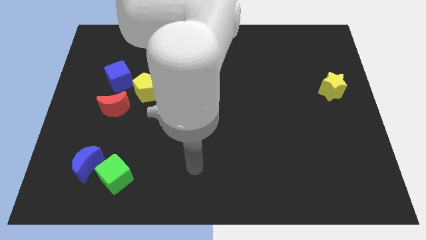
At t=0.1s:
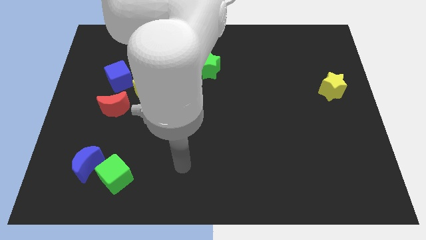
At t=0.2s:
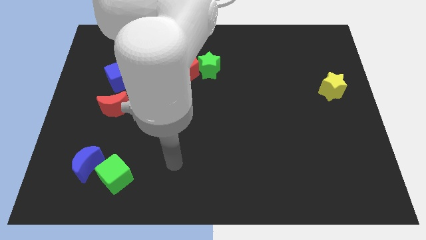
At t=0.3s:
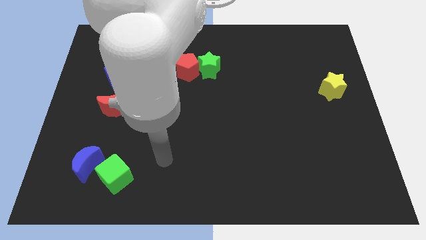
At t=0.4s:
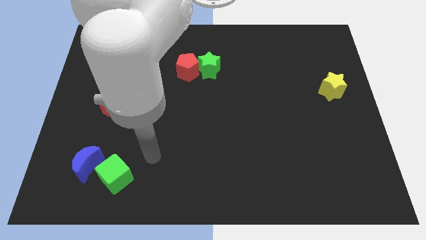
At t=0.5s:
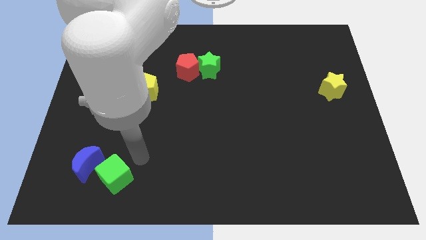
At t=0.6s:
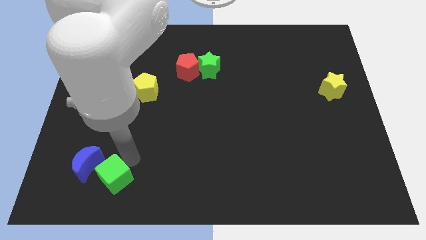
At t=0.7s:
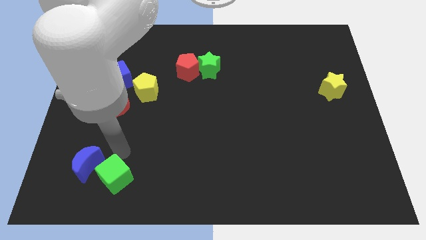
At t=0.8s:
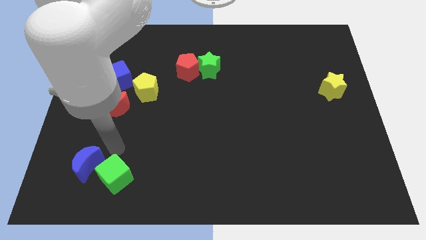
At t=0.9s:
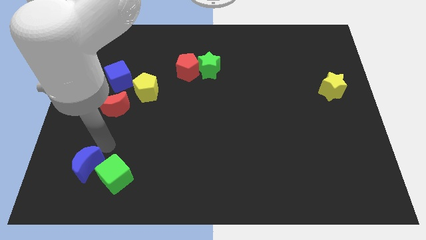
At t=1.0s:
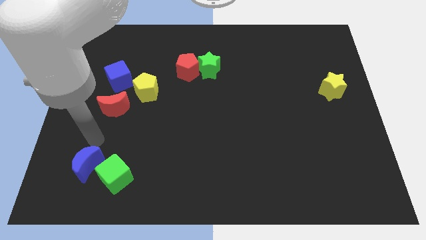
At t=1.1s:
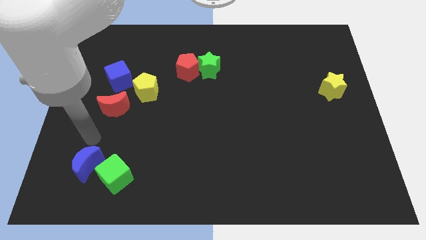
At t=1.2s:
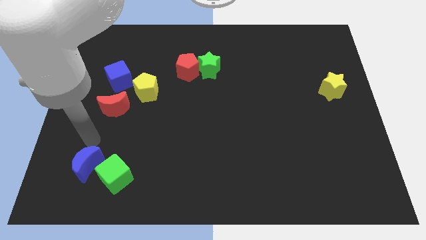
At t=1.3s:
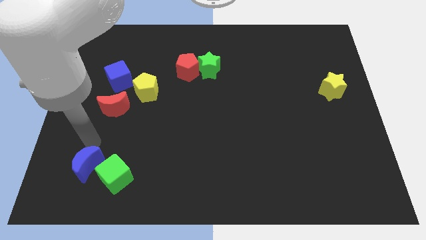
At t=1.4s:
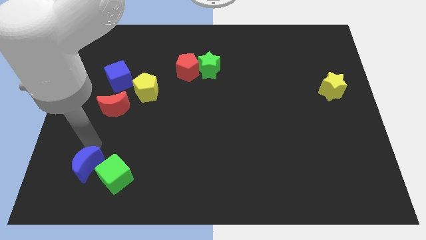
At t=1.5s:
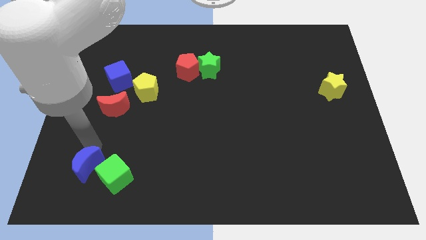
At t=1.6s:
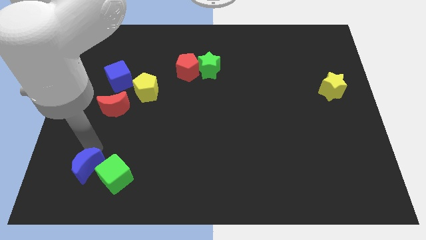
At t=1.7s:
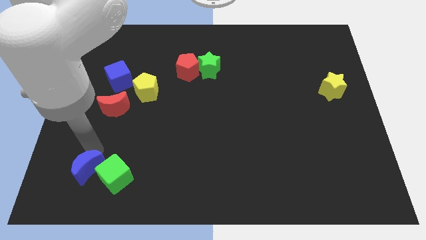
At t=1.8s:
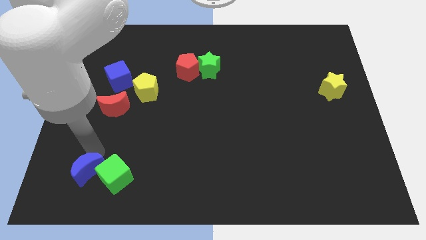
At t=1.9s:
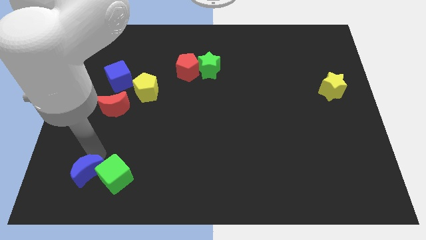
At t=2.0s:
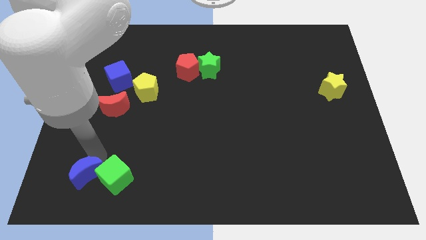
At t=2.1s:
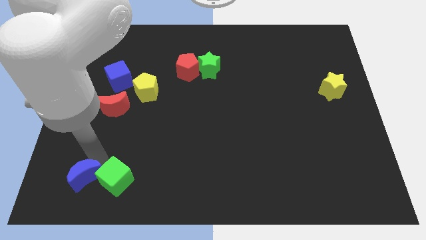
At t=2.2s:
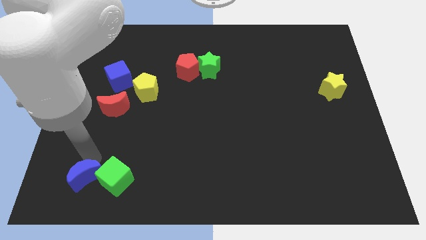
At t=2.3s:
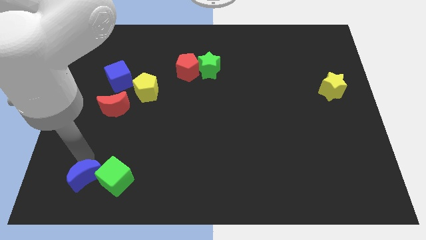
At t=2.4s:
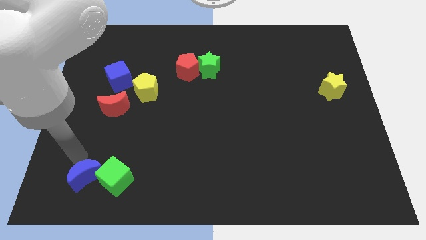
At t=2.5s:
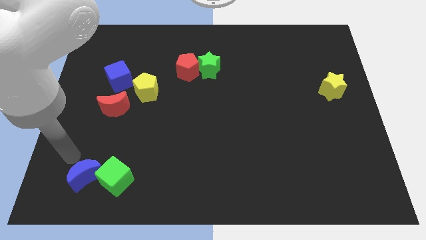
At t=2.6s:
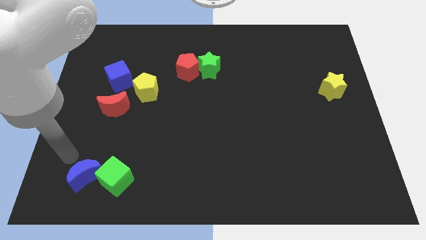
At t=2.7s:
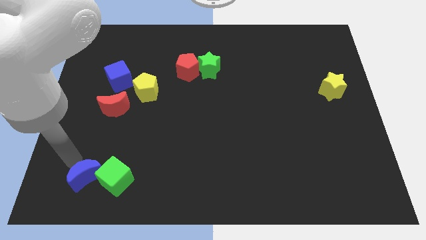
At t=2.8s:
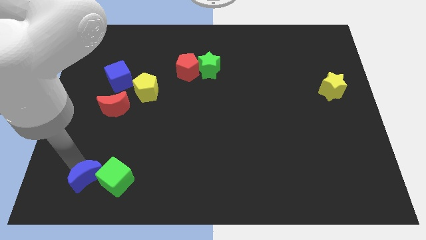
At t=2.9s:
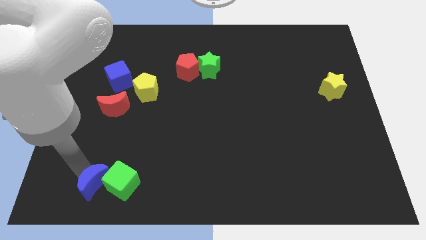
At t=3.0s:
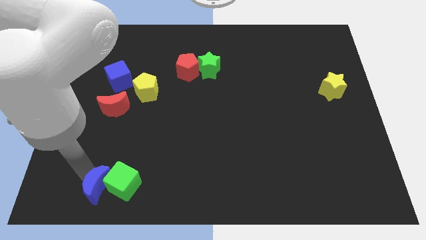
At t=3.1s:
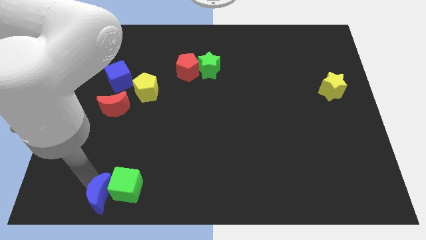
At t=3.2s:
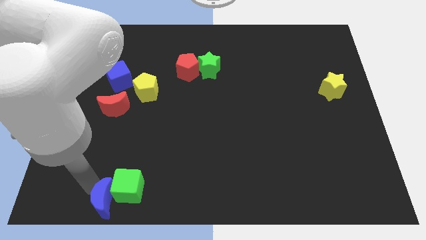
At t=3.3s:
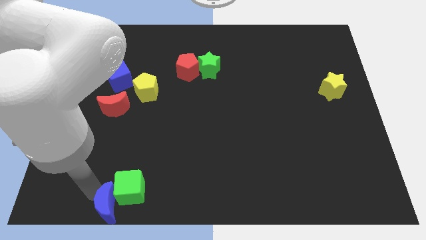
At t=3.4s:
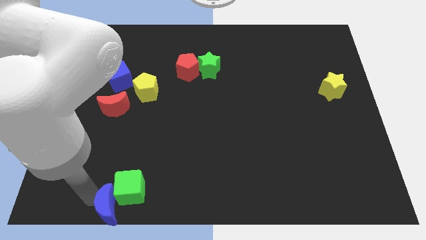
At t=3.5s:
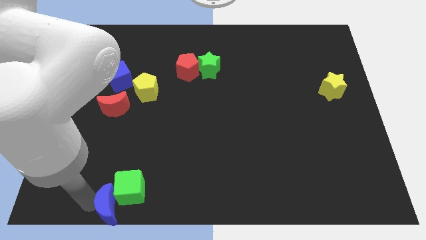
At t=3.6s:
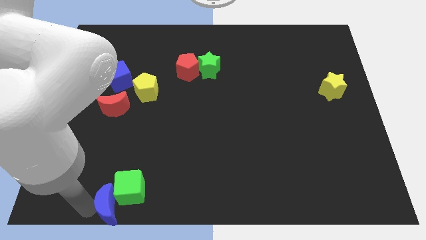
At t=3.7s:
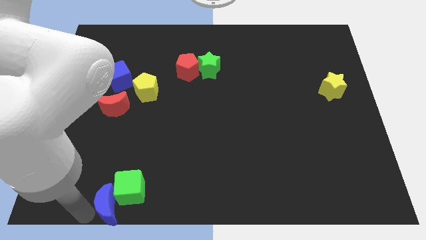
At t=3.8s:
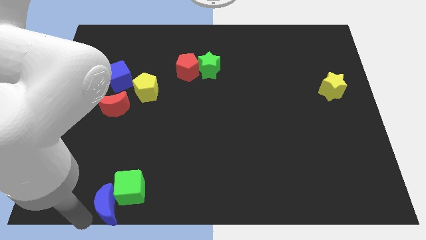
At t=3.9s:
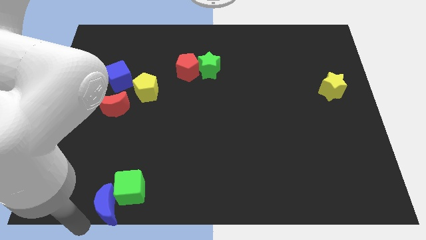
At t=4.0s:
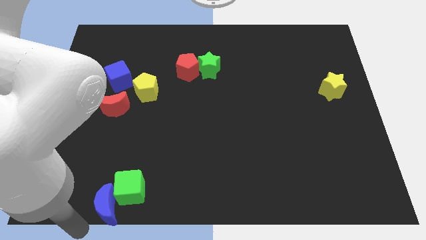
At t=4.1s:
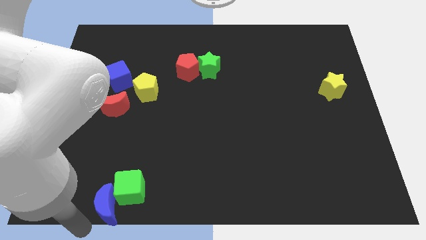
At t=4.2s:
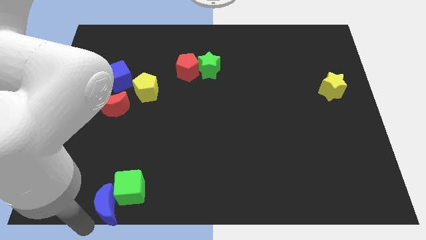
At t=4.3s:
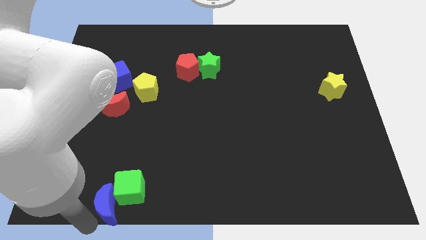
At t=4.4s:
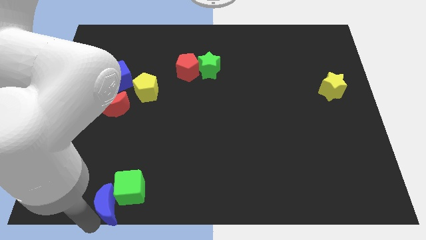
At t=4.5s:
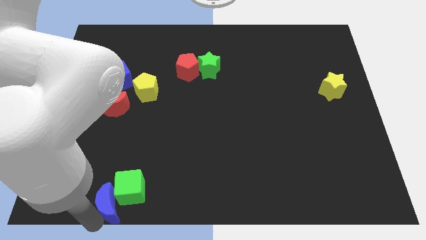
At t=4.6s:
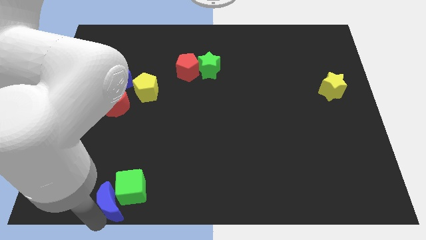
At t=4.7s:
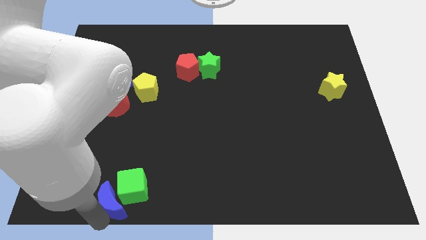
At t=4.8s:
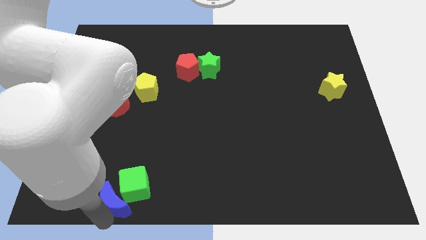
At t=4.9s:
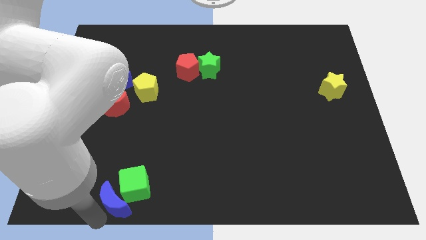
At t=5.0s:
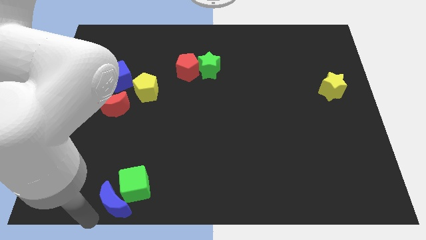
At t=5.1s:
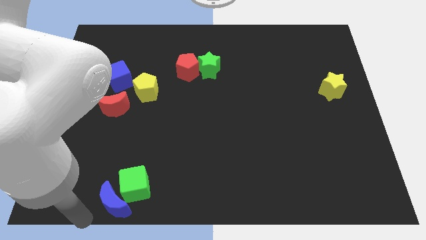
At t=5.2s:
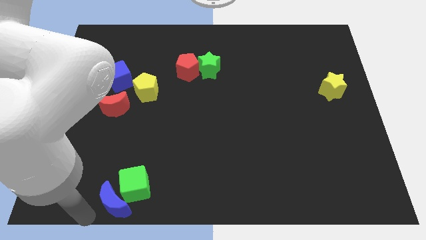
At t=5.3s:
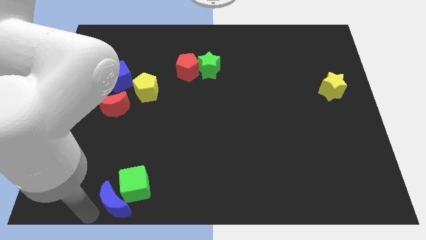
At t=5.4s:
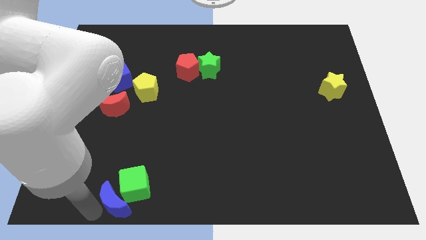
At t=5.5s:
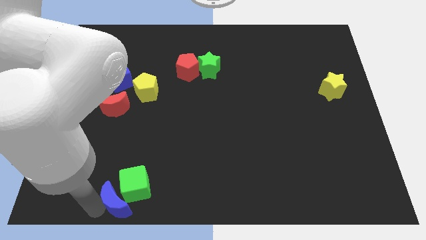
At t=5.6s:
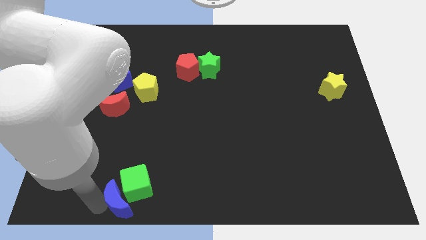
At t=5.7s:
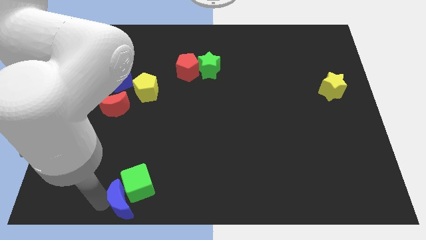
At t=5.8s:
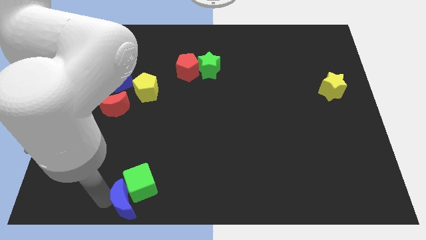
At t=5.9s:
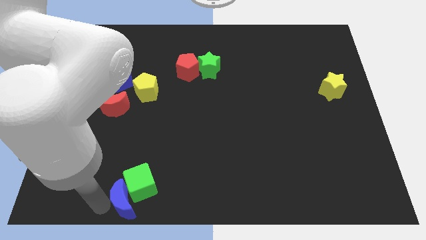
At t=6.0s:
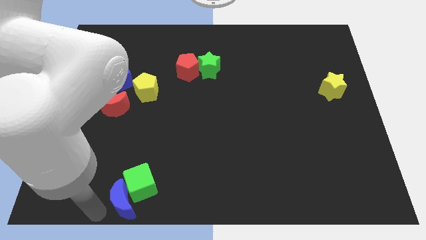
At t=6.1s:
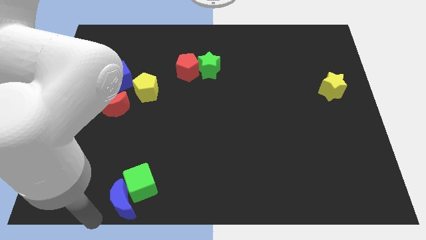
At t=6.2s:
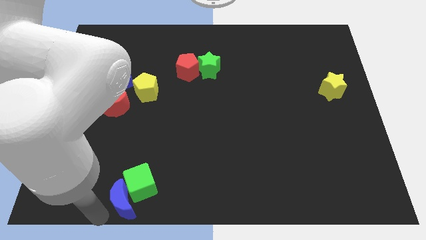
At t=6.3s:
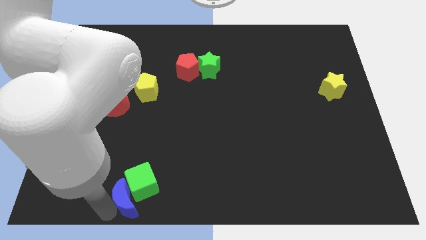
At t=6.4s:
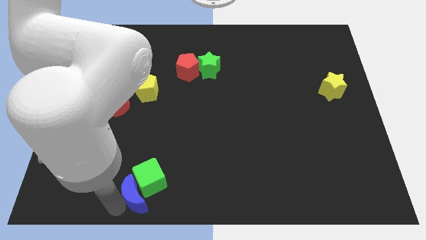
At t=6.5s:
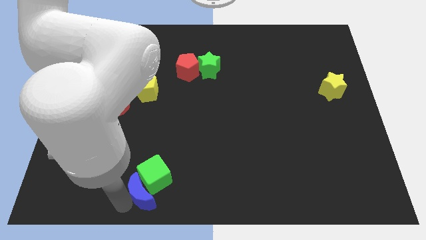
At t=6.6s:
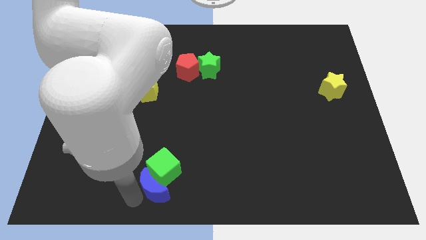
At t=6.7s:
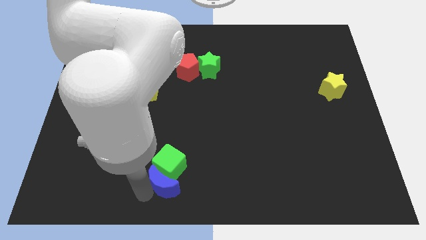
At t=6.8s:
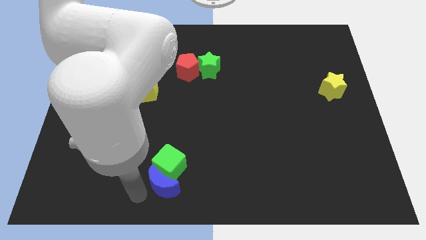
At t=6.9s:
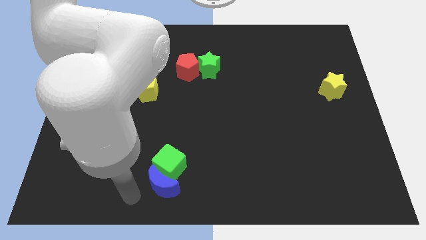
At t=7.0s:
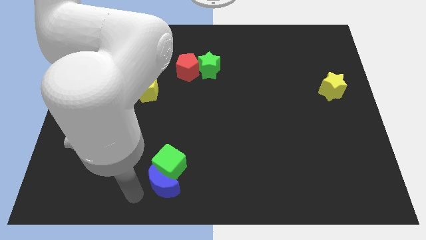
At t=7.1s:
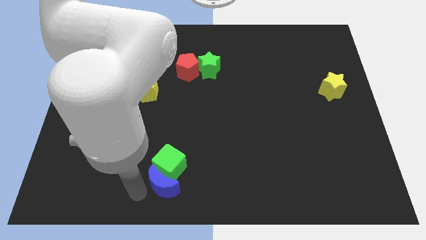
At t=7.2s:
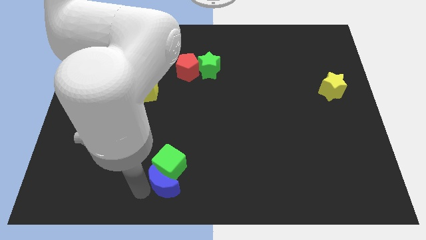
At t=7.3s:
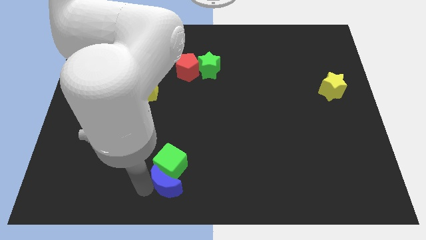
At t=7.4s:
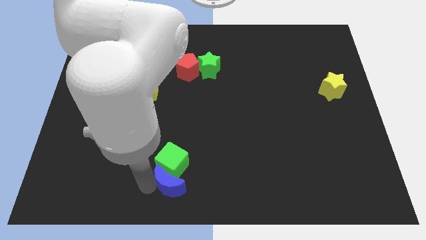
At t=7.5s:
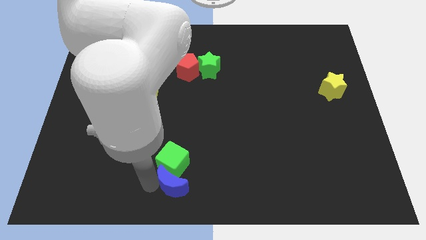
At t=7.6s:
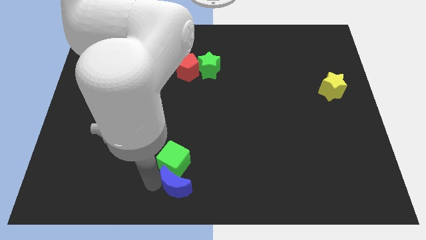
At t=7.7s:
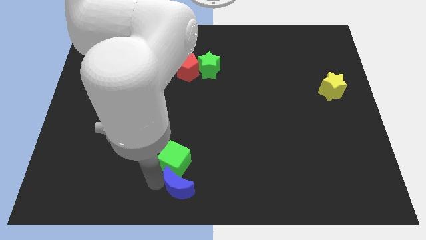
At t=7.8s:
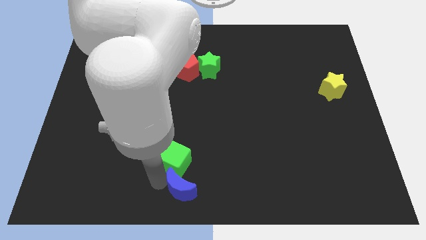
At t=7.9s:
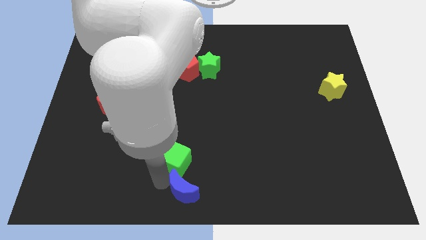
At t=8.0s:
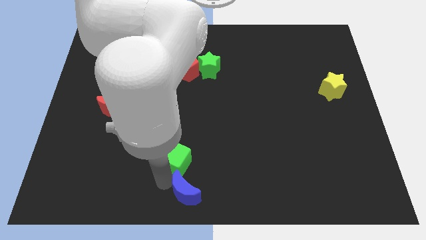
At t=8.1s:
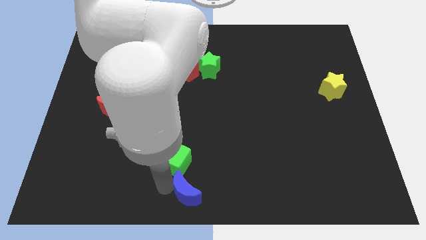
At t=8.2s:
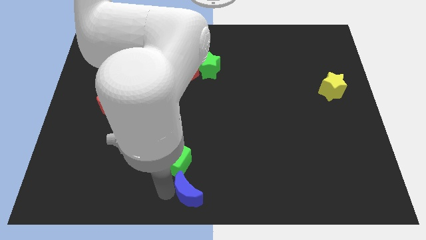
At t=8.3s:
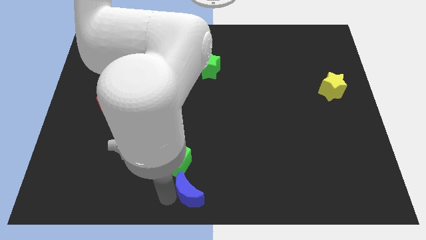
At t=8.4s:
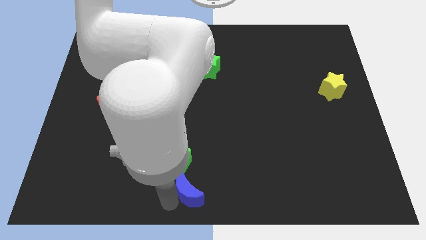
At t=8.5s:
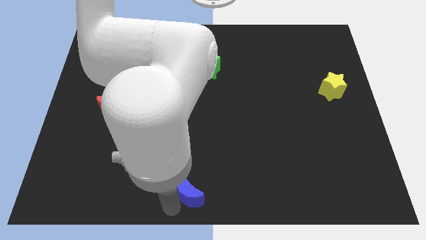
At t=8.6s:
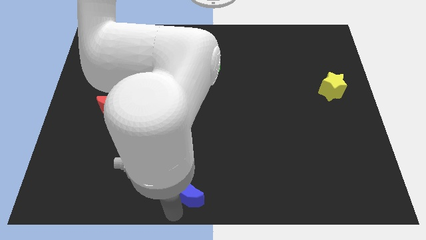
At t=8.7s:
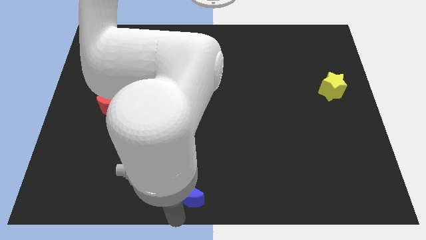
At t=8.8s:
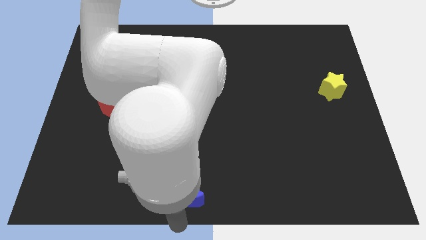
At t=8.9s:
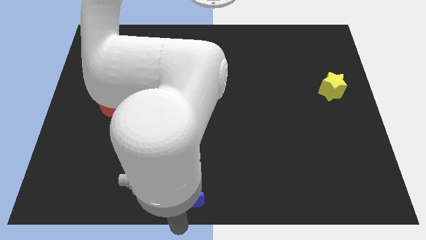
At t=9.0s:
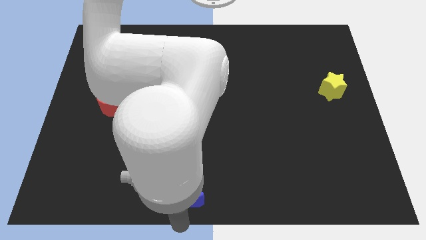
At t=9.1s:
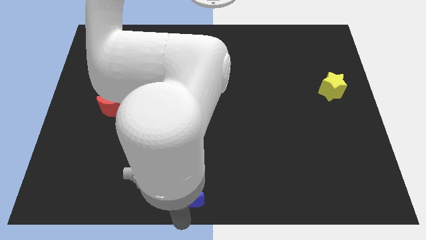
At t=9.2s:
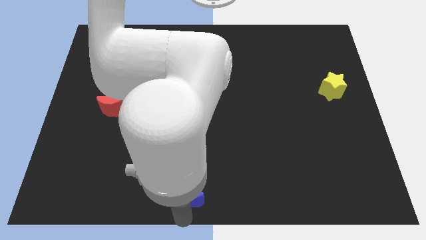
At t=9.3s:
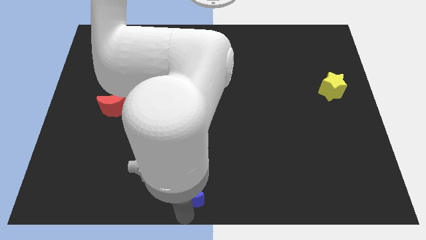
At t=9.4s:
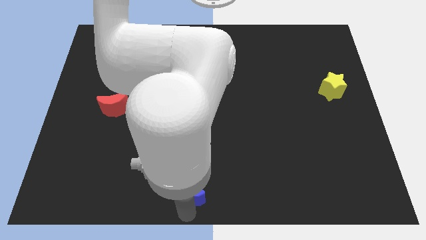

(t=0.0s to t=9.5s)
push the blue moon right
